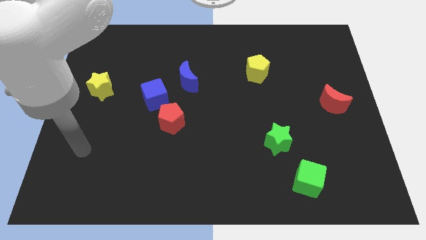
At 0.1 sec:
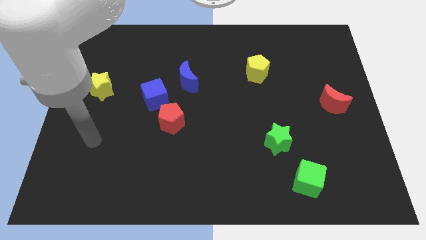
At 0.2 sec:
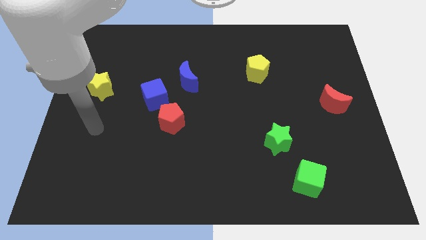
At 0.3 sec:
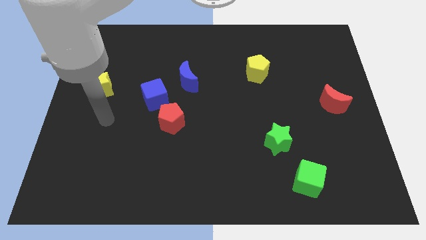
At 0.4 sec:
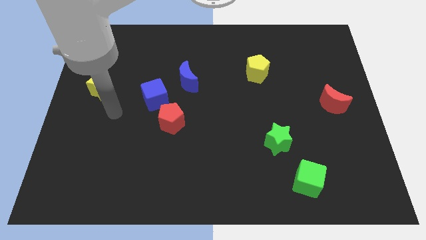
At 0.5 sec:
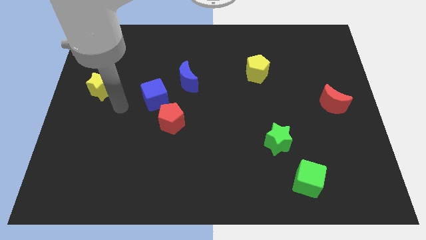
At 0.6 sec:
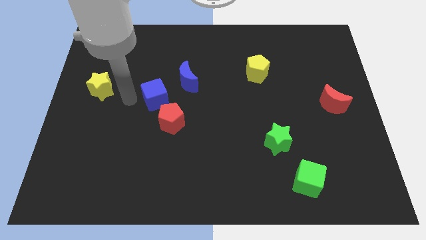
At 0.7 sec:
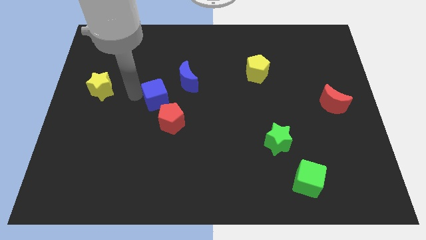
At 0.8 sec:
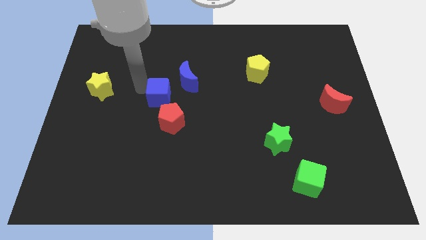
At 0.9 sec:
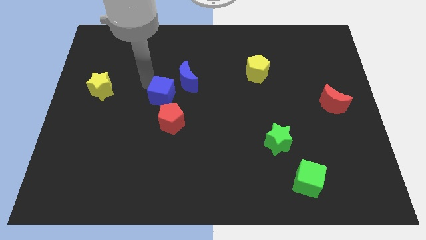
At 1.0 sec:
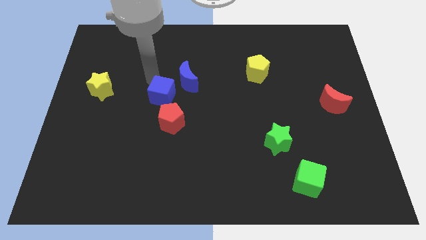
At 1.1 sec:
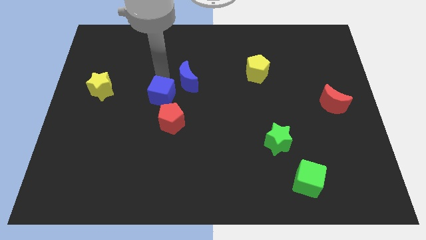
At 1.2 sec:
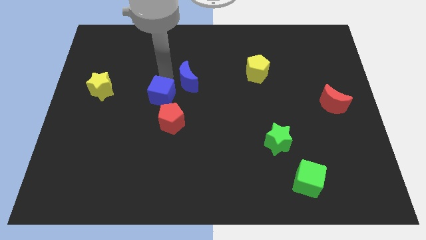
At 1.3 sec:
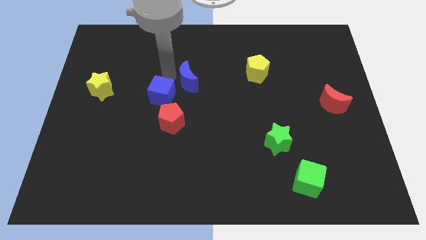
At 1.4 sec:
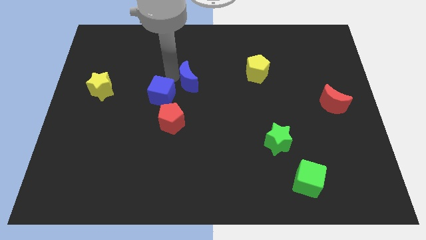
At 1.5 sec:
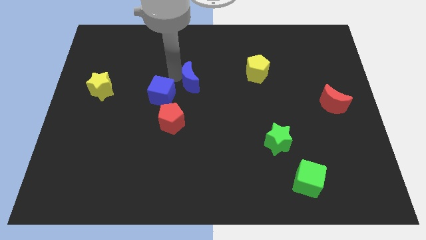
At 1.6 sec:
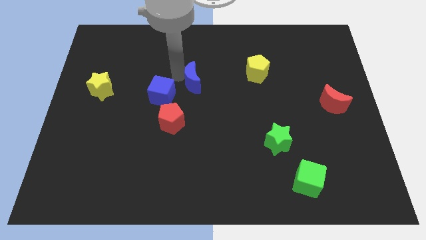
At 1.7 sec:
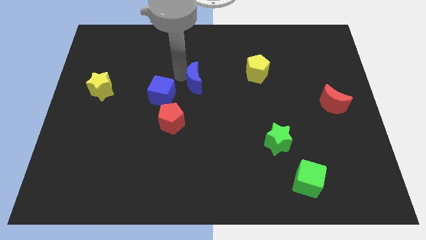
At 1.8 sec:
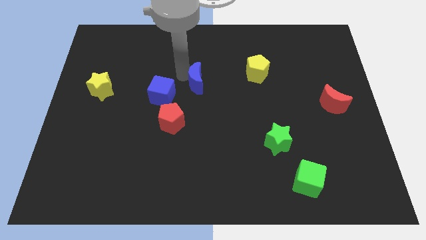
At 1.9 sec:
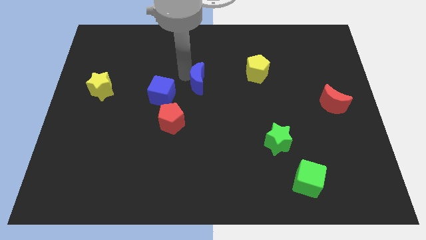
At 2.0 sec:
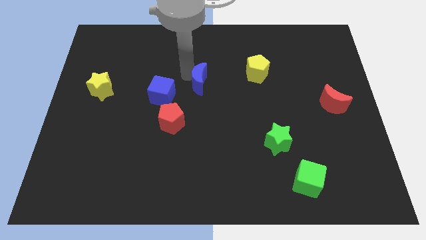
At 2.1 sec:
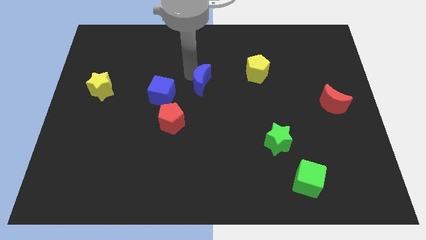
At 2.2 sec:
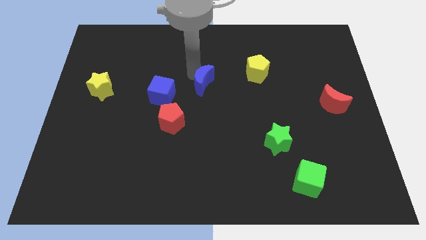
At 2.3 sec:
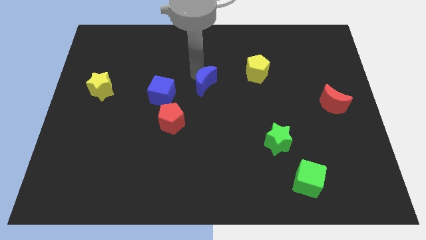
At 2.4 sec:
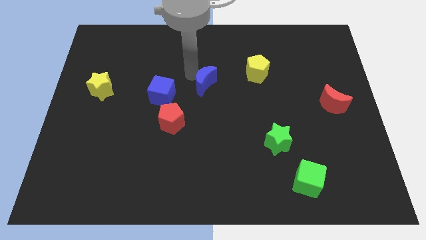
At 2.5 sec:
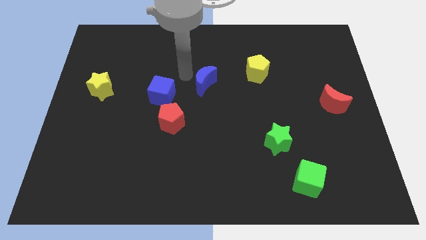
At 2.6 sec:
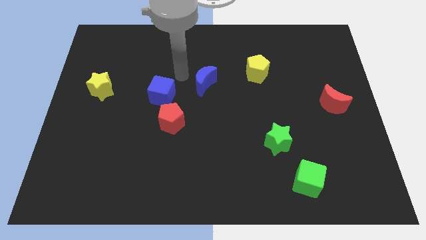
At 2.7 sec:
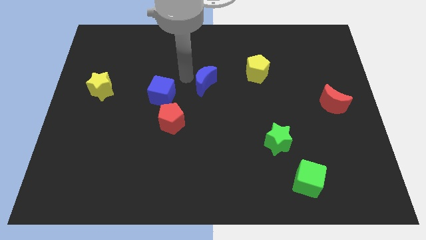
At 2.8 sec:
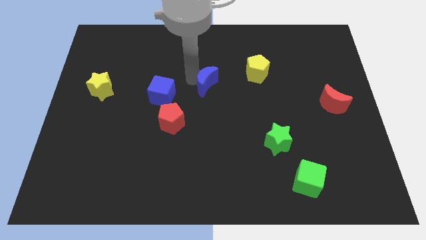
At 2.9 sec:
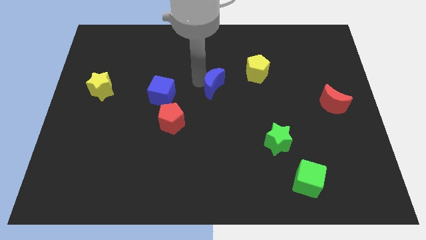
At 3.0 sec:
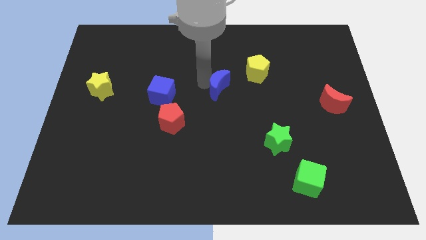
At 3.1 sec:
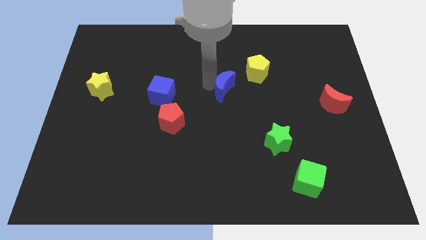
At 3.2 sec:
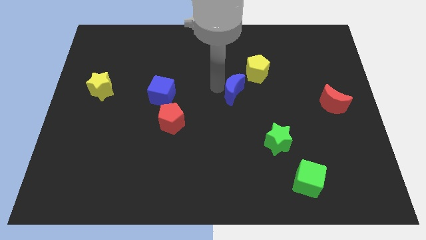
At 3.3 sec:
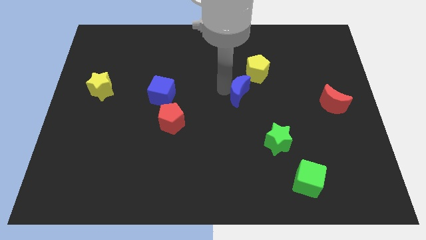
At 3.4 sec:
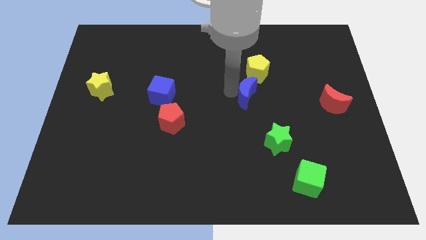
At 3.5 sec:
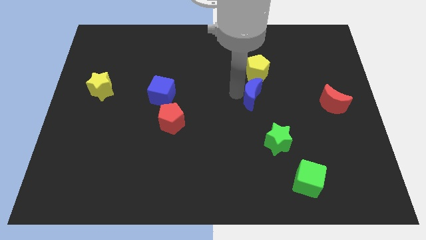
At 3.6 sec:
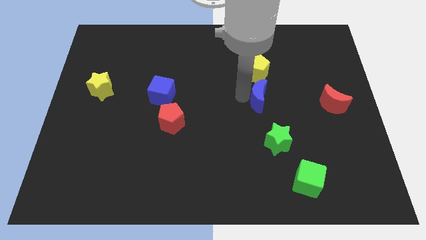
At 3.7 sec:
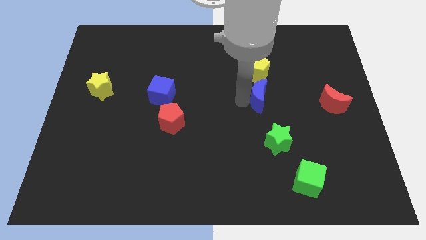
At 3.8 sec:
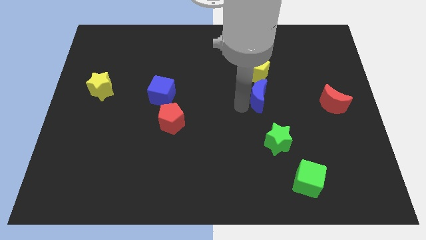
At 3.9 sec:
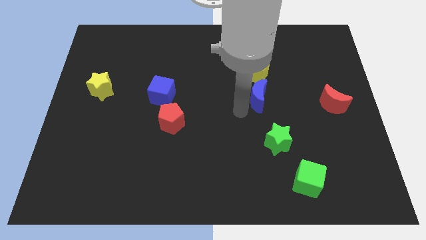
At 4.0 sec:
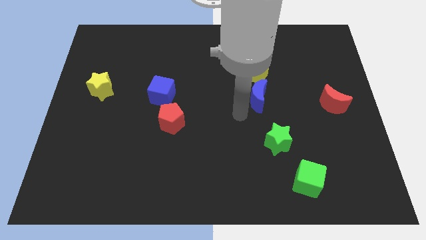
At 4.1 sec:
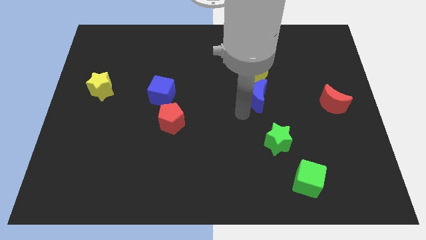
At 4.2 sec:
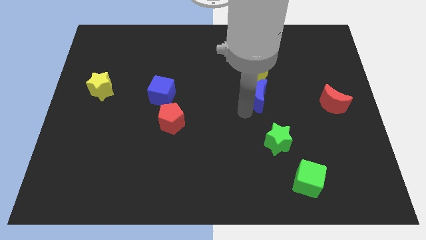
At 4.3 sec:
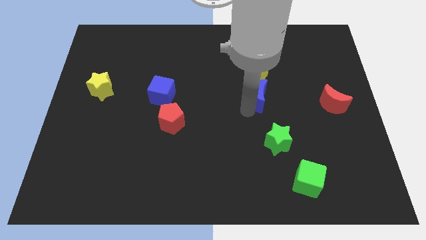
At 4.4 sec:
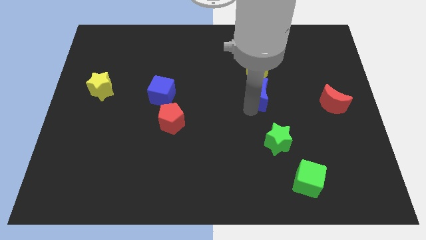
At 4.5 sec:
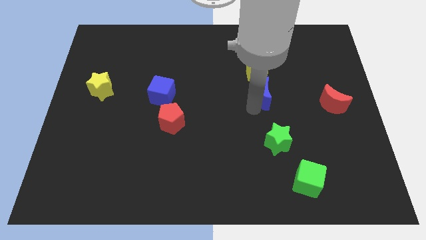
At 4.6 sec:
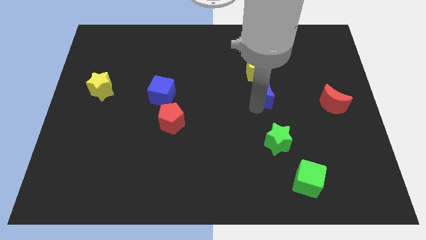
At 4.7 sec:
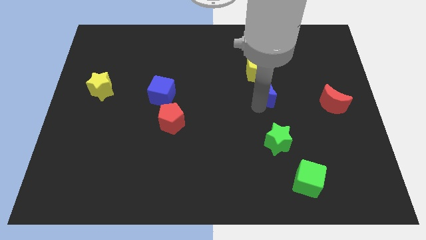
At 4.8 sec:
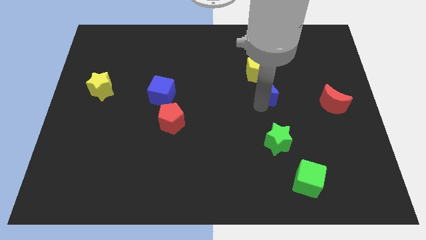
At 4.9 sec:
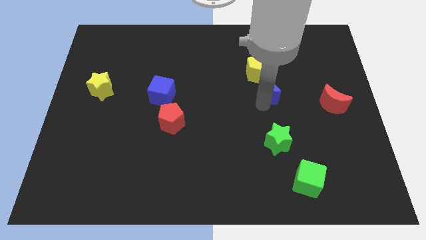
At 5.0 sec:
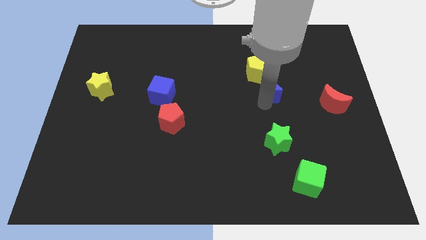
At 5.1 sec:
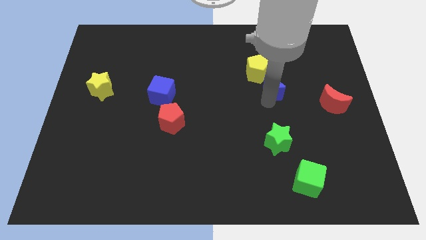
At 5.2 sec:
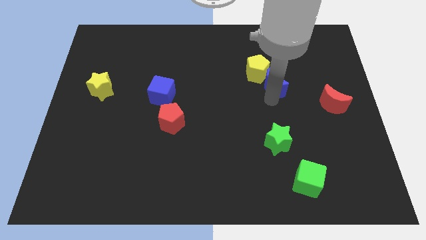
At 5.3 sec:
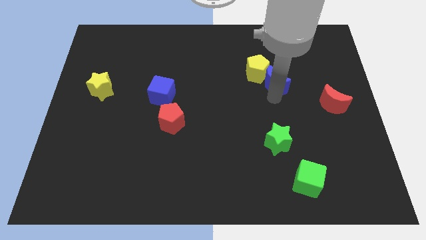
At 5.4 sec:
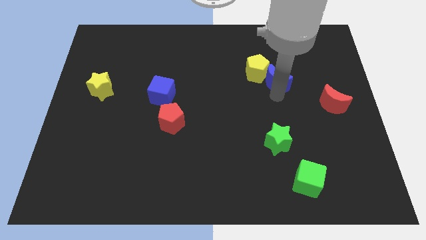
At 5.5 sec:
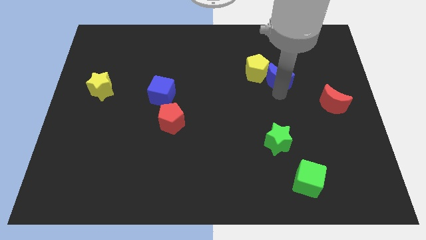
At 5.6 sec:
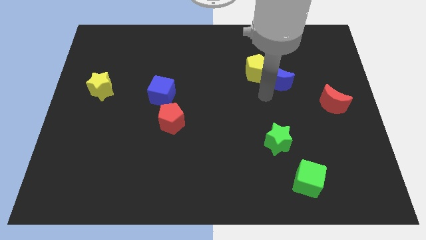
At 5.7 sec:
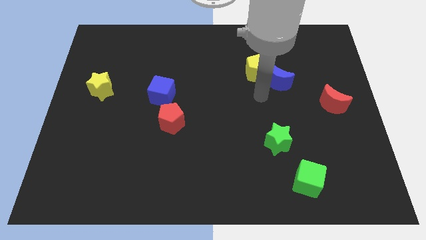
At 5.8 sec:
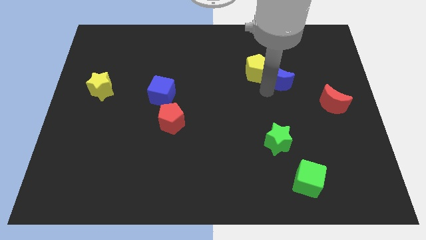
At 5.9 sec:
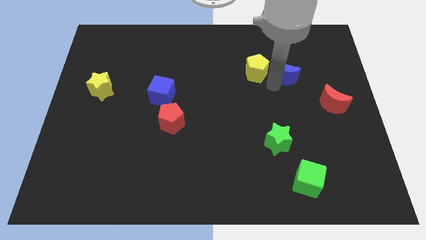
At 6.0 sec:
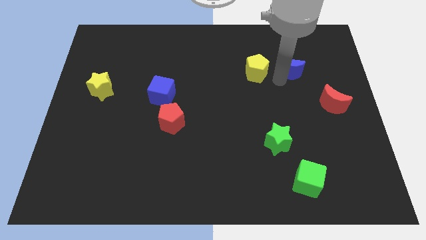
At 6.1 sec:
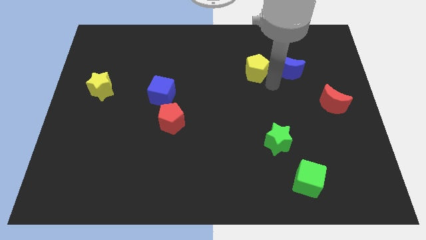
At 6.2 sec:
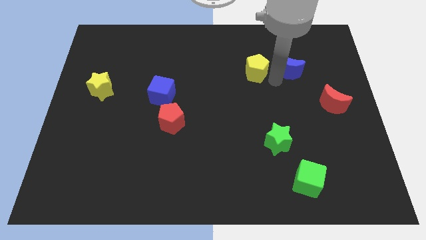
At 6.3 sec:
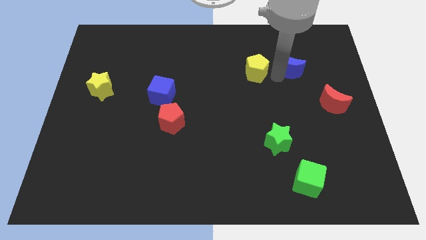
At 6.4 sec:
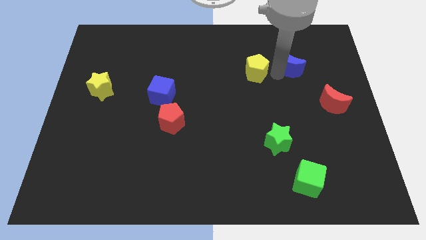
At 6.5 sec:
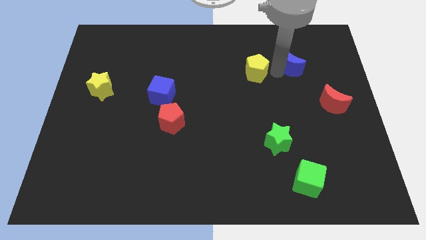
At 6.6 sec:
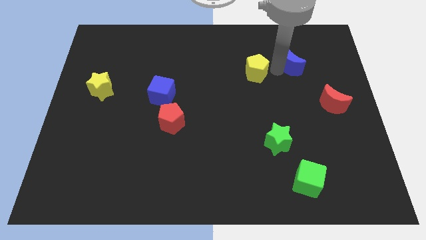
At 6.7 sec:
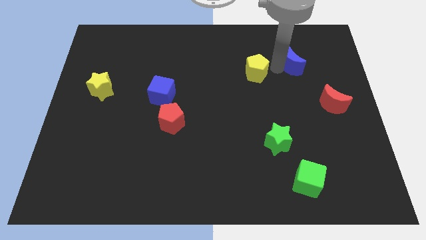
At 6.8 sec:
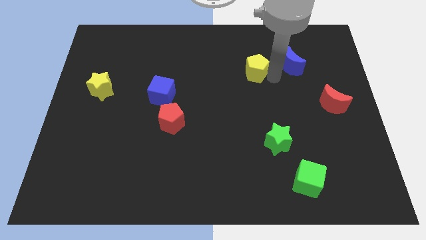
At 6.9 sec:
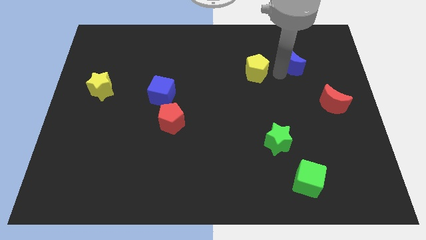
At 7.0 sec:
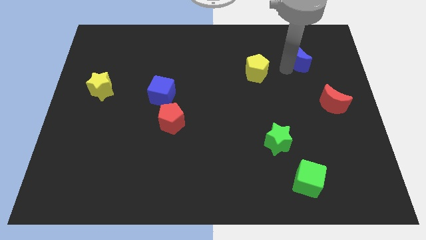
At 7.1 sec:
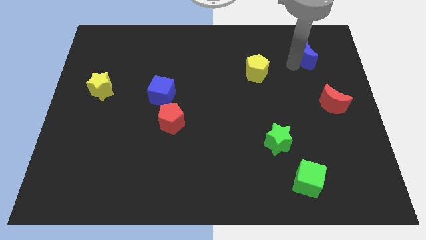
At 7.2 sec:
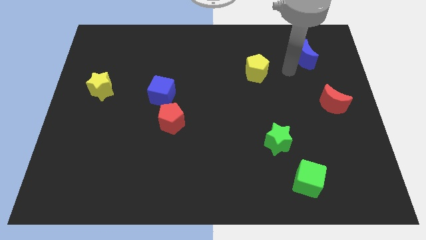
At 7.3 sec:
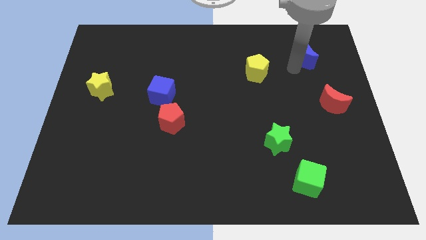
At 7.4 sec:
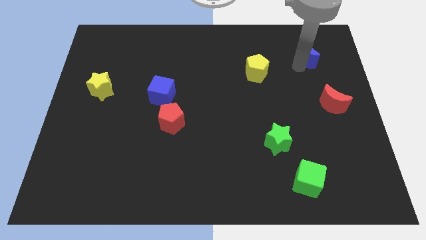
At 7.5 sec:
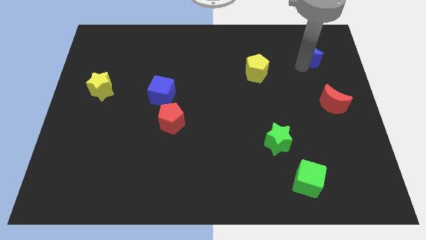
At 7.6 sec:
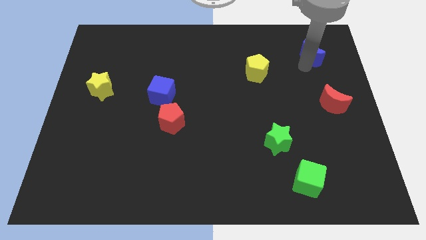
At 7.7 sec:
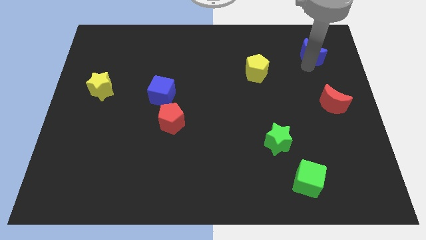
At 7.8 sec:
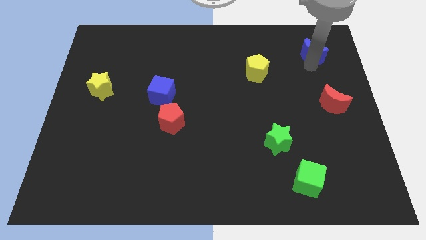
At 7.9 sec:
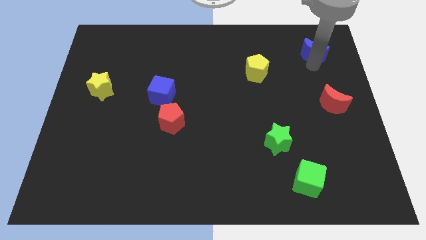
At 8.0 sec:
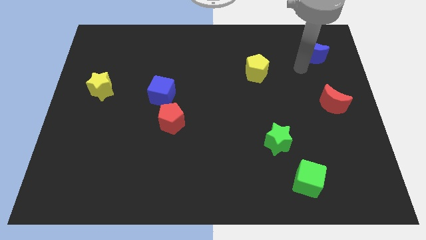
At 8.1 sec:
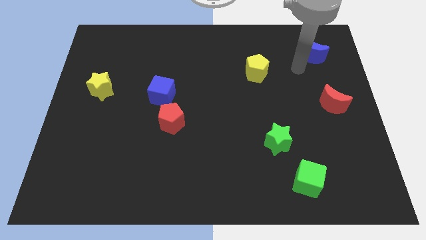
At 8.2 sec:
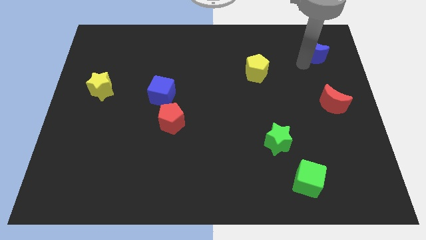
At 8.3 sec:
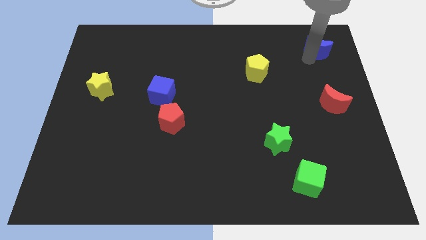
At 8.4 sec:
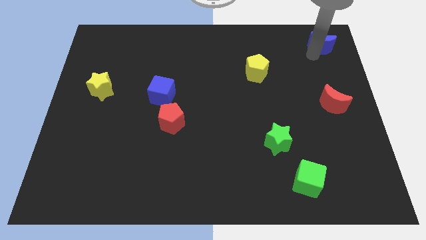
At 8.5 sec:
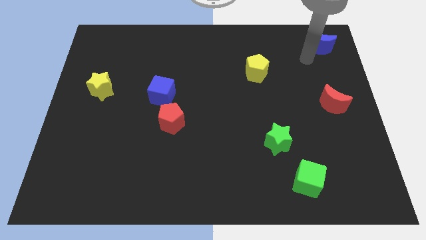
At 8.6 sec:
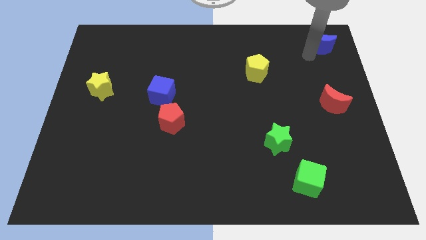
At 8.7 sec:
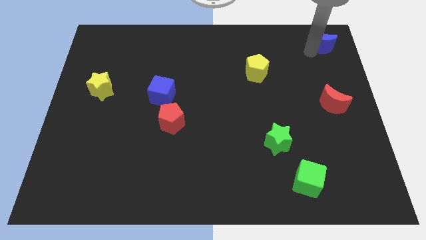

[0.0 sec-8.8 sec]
slide the blue moon to the upper right corner
